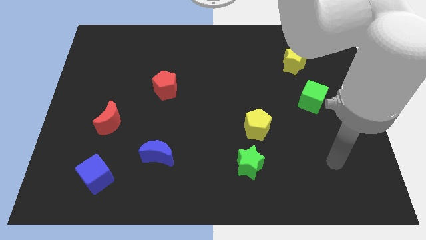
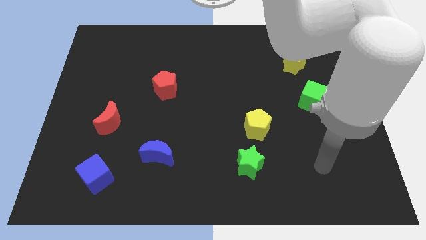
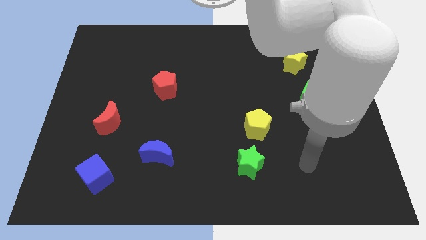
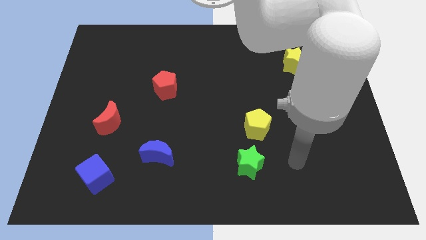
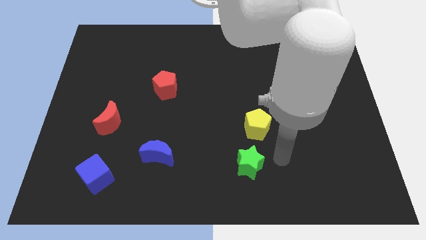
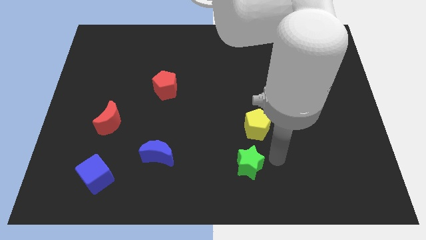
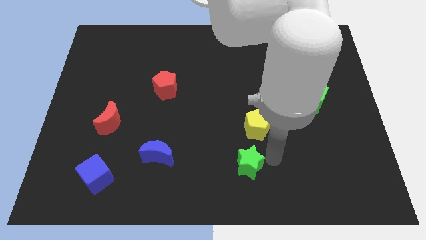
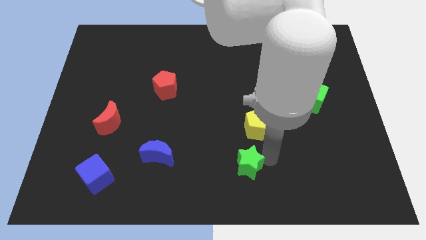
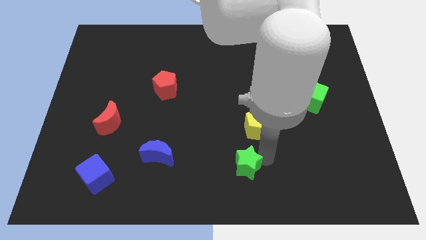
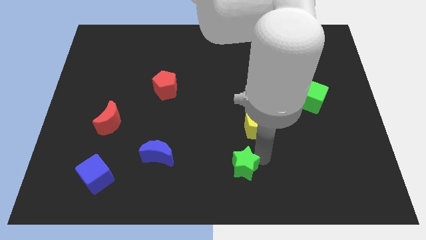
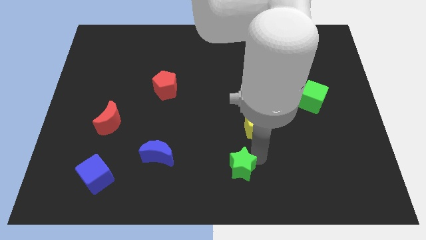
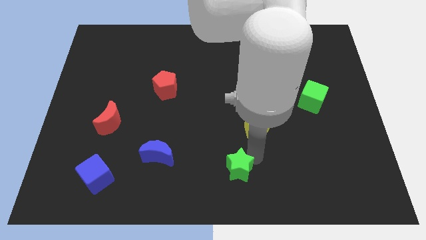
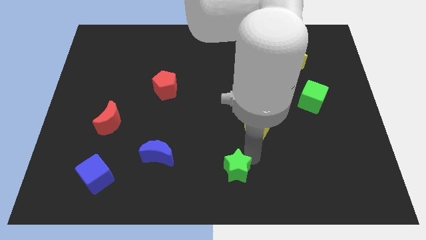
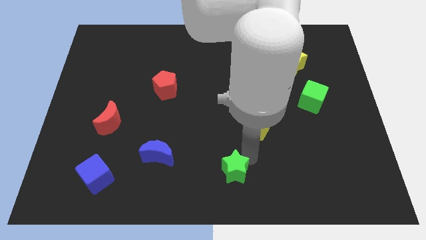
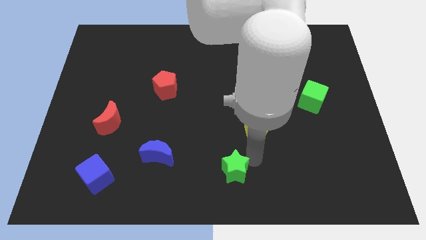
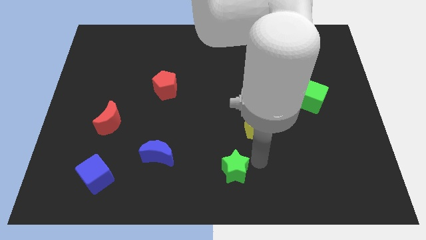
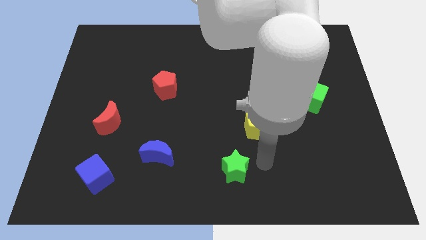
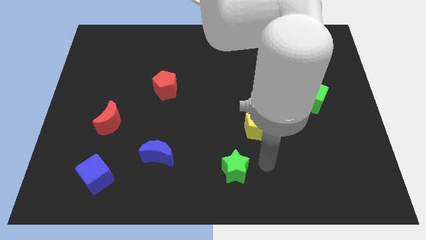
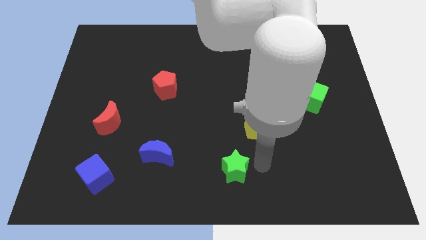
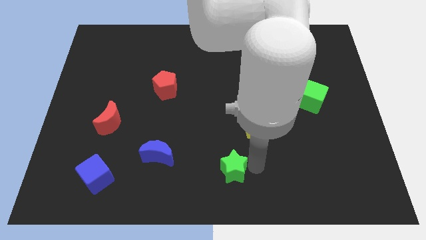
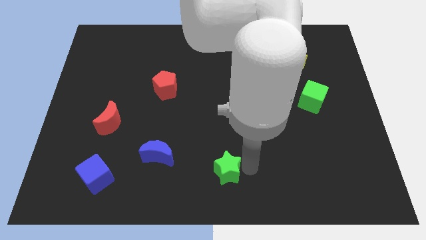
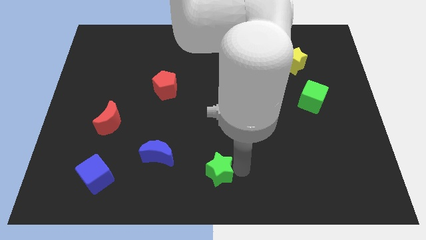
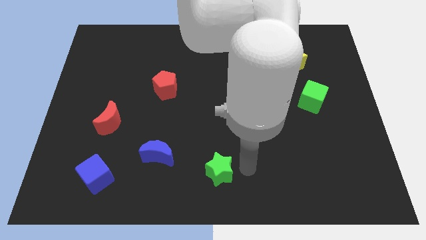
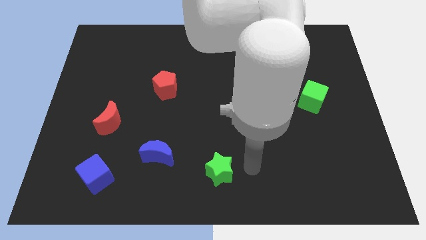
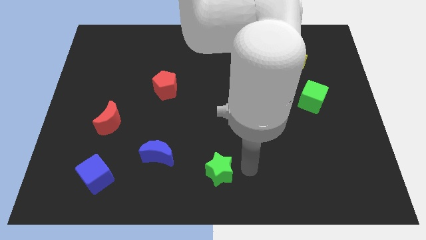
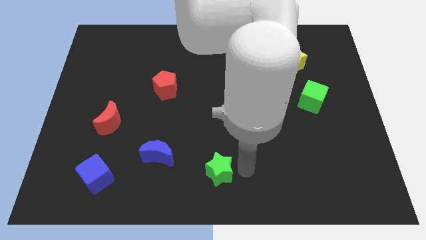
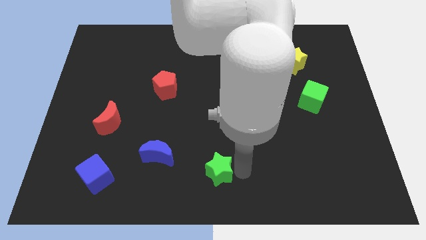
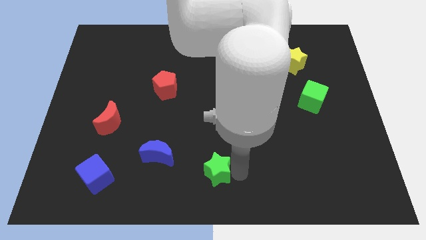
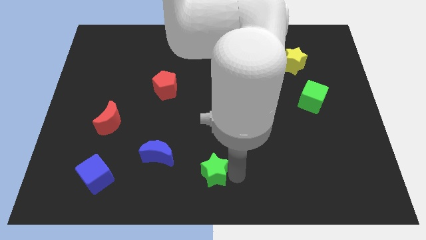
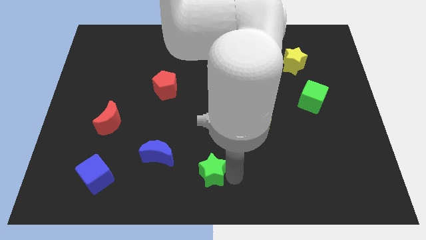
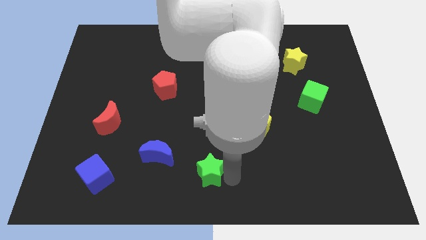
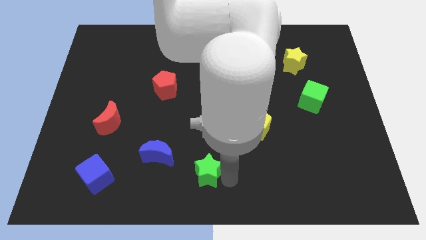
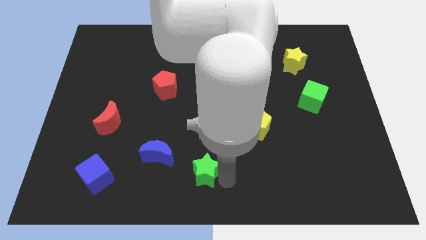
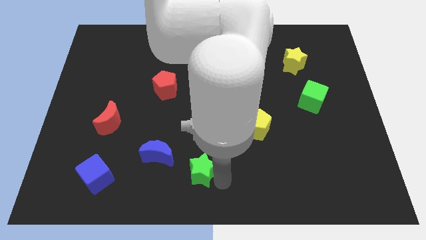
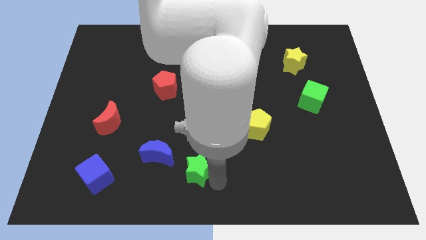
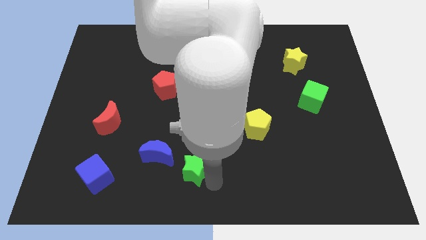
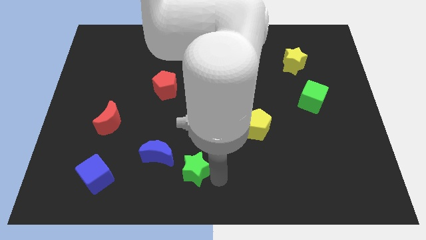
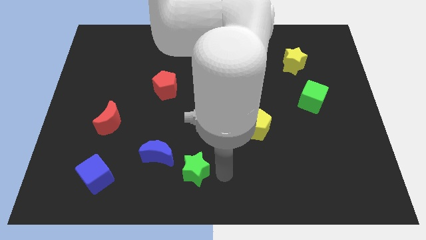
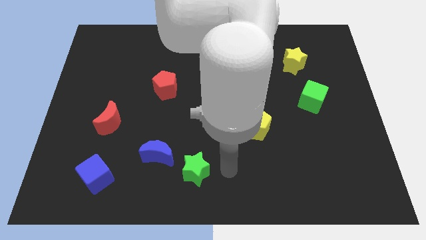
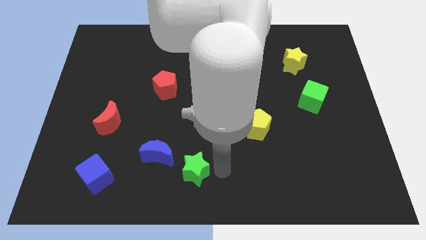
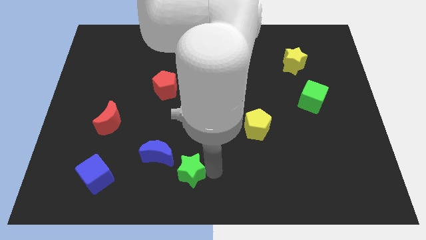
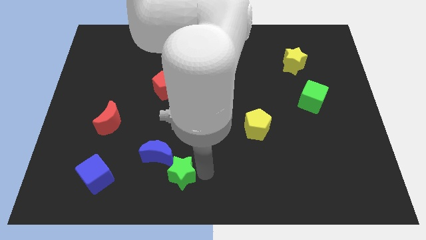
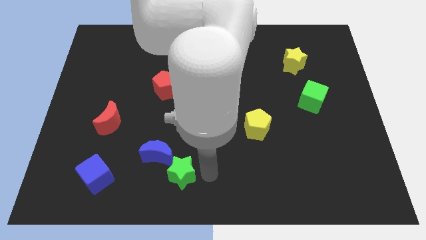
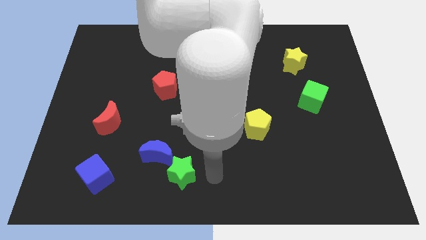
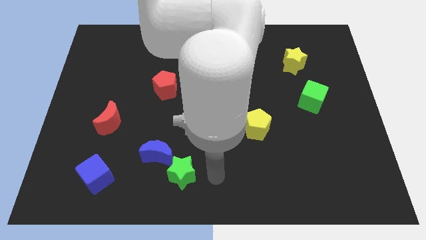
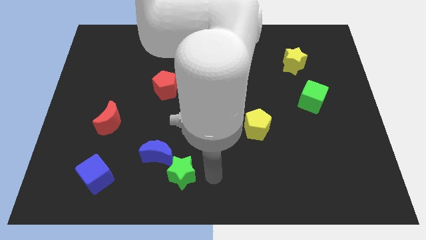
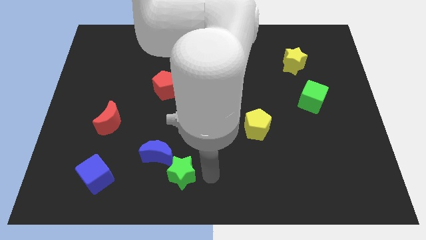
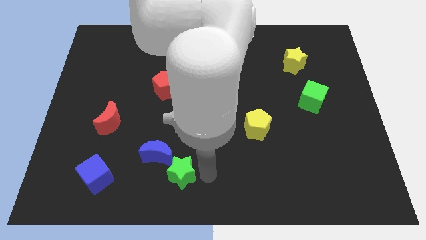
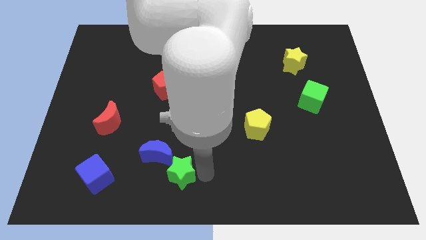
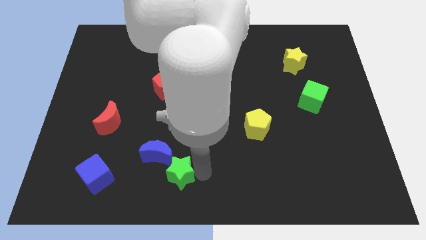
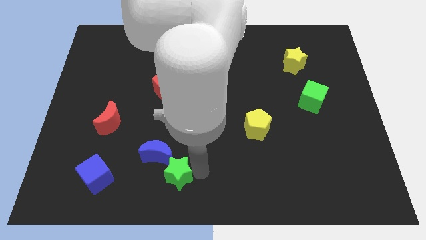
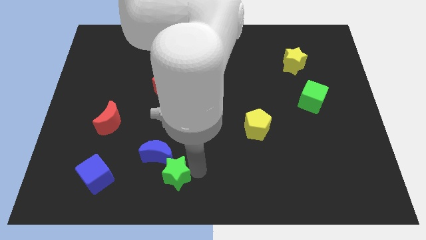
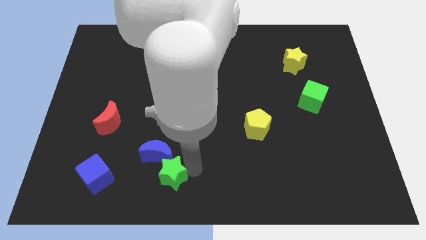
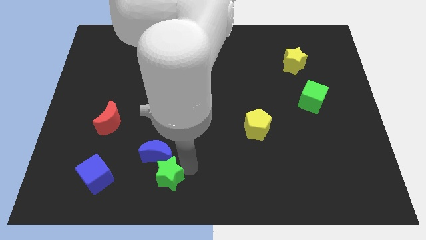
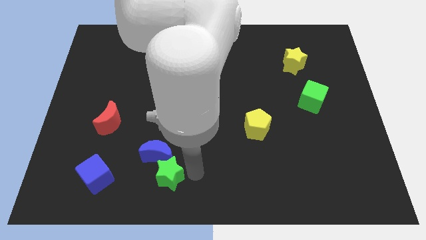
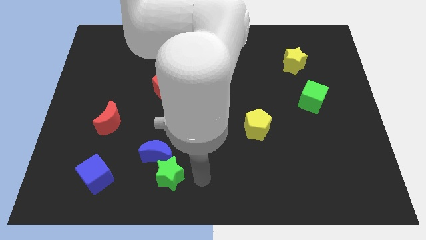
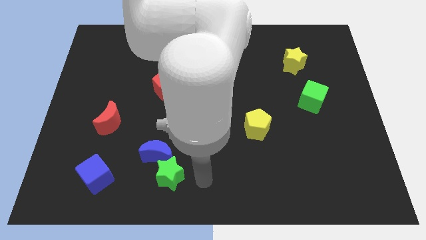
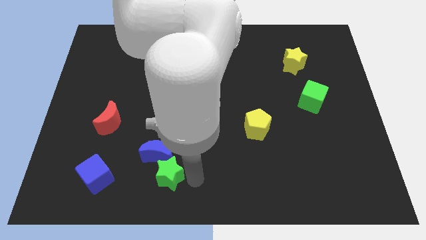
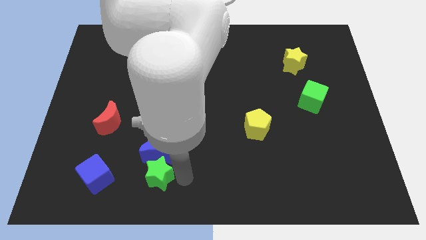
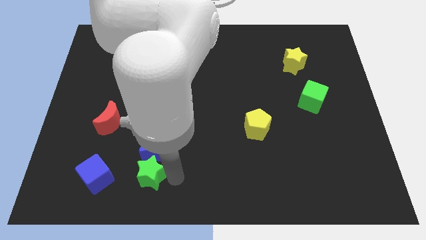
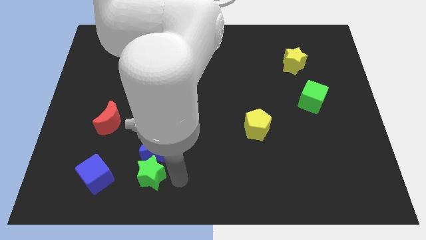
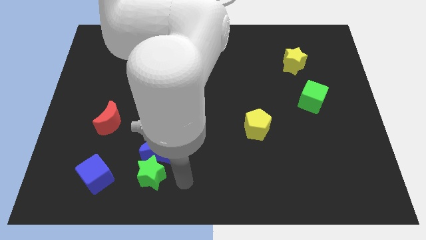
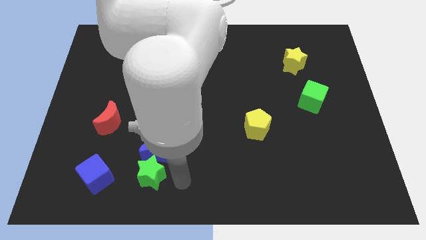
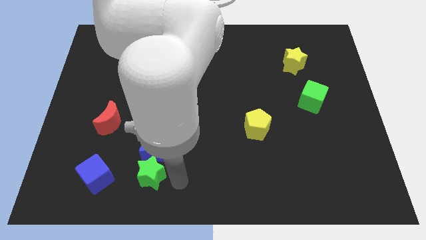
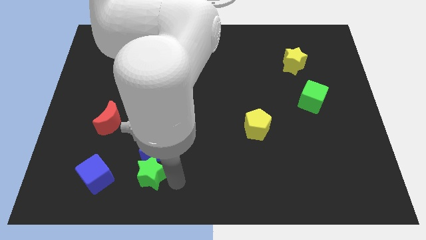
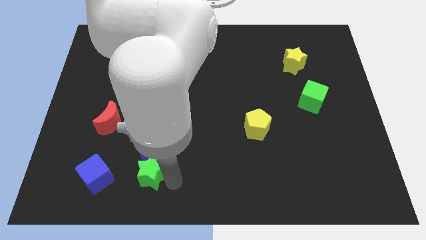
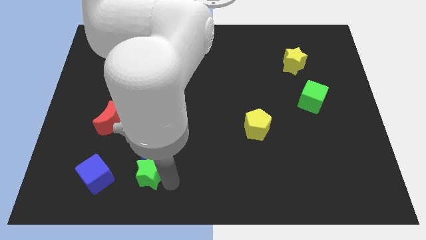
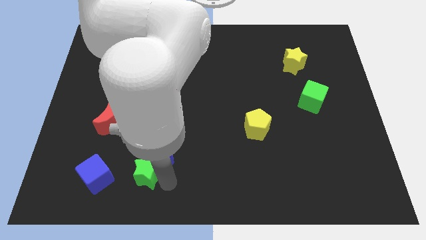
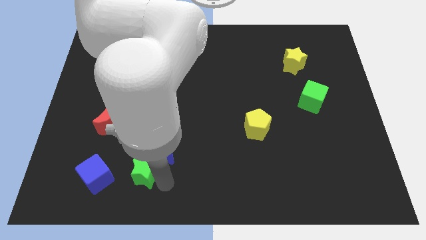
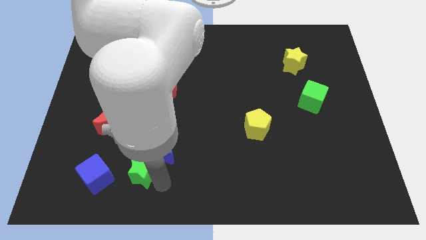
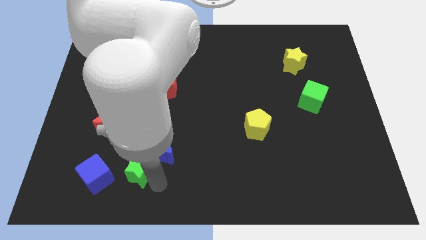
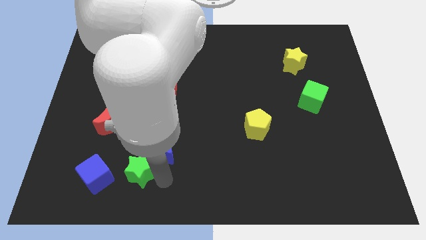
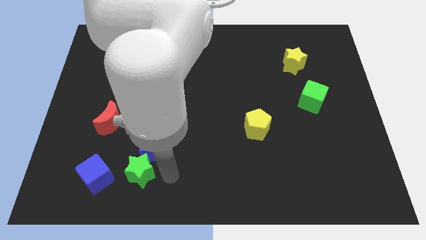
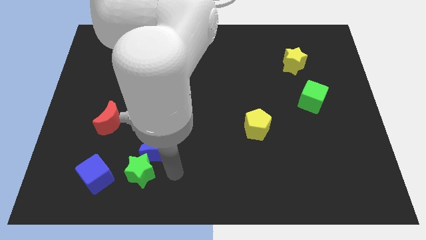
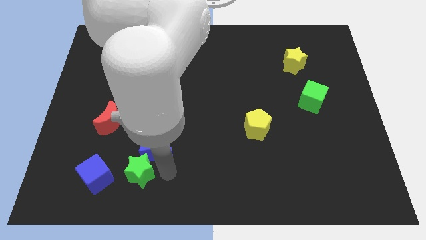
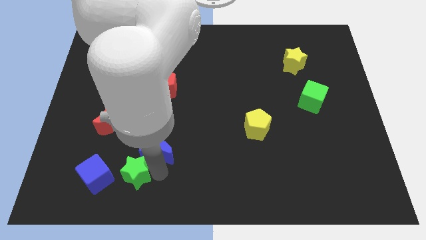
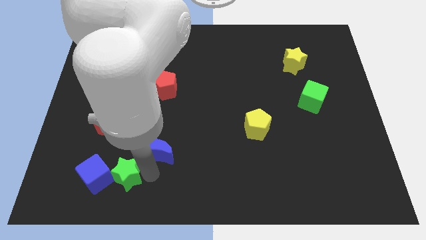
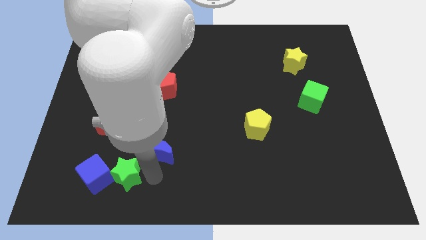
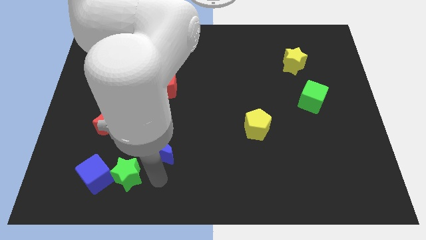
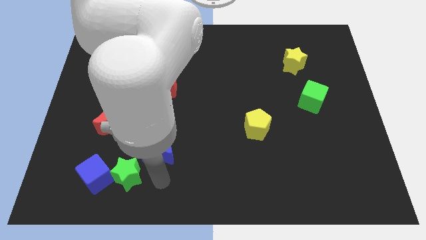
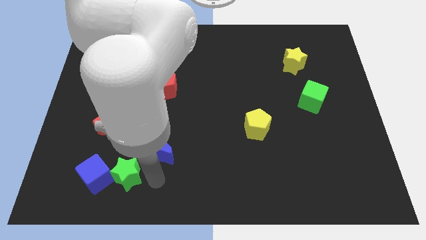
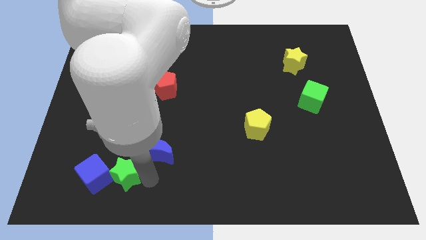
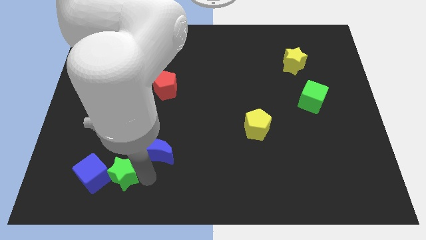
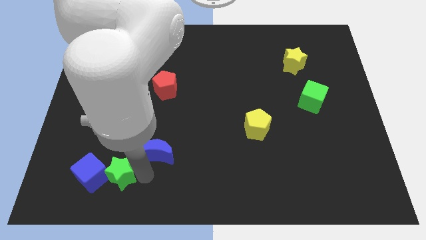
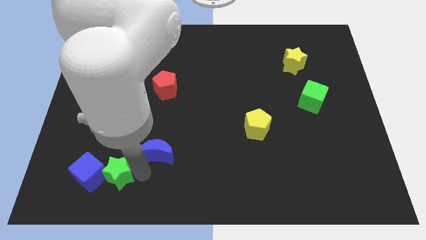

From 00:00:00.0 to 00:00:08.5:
put the green star next to the blue cube
